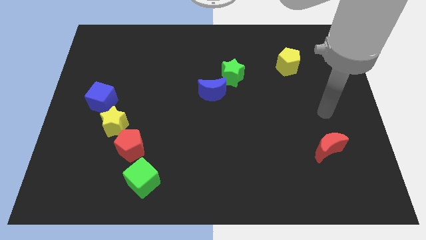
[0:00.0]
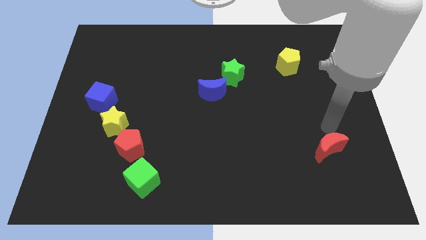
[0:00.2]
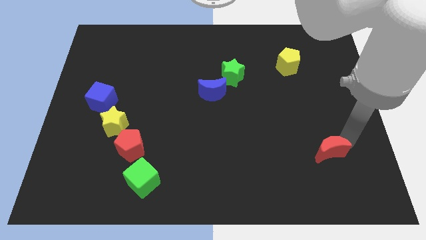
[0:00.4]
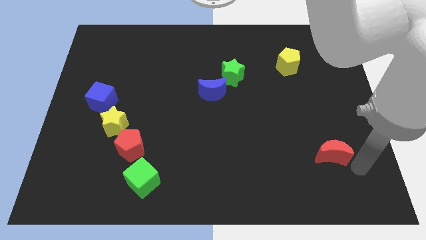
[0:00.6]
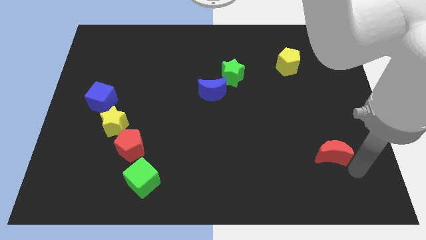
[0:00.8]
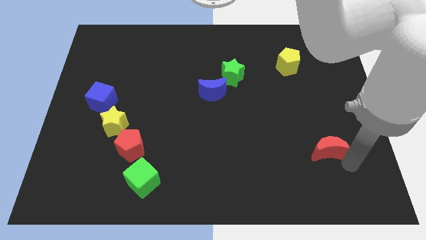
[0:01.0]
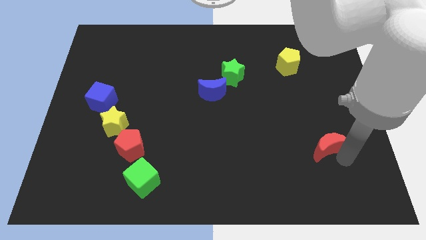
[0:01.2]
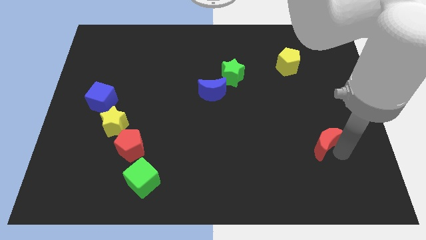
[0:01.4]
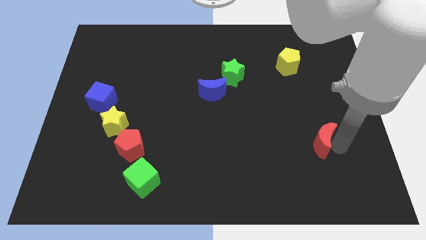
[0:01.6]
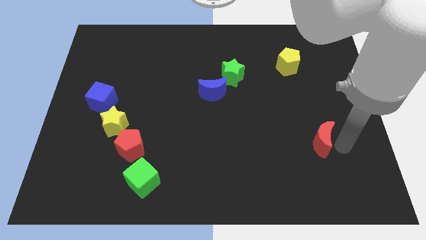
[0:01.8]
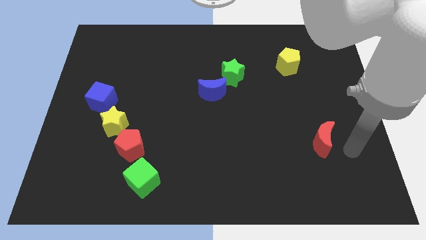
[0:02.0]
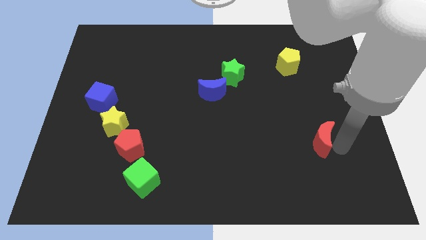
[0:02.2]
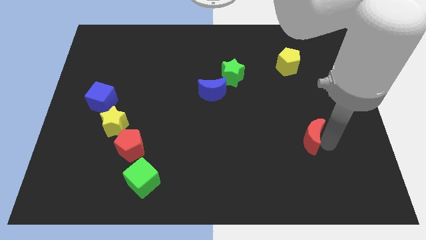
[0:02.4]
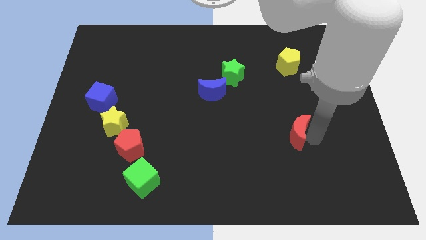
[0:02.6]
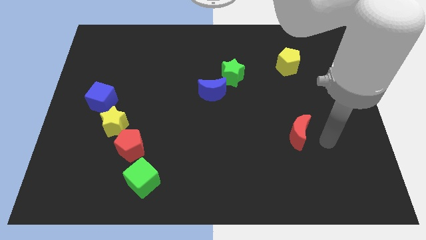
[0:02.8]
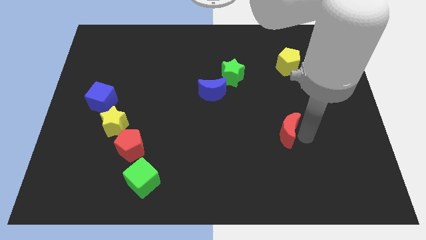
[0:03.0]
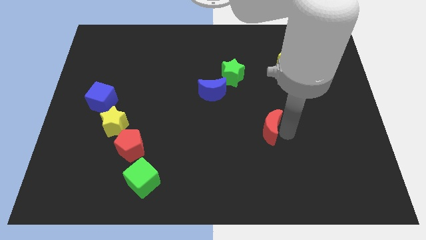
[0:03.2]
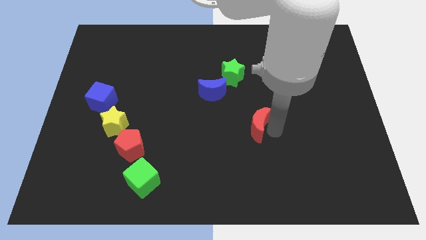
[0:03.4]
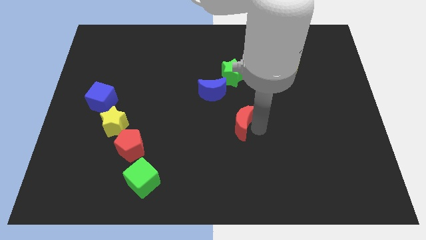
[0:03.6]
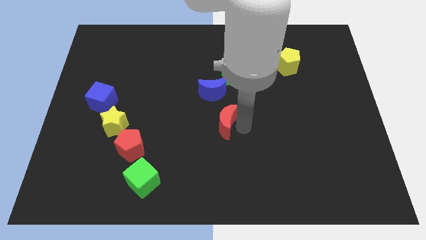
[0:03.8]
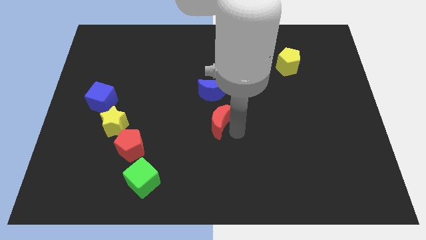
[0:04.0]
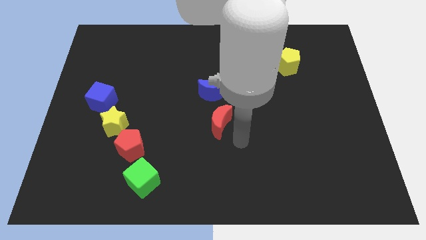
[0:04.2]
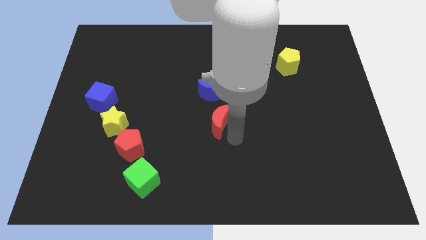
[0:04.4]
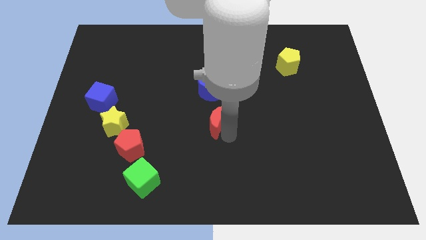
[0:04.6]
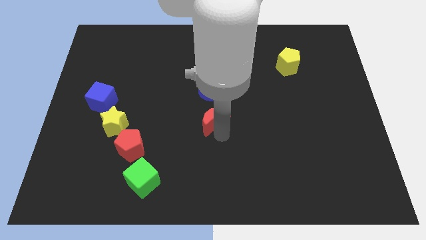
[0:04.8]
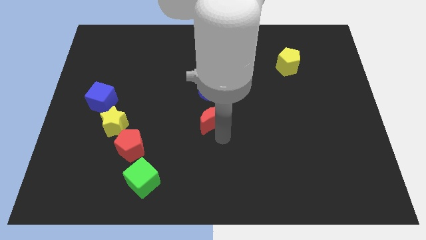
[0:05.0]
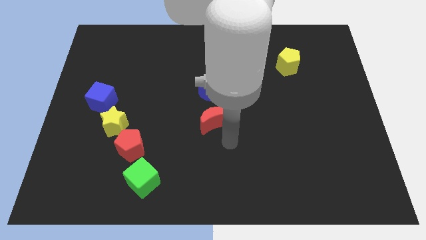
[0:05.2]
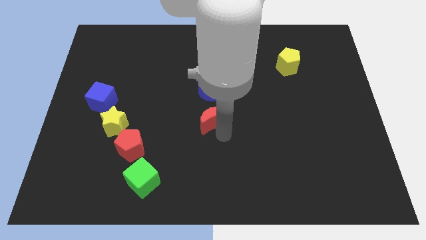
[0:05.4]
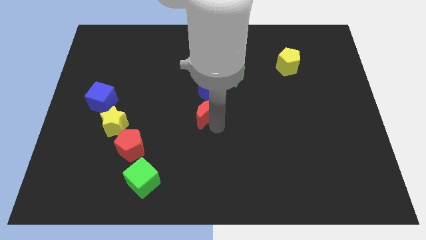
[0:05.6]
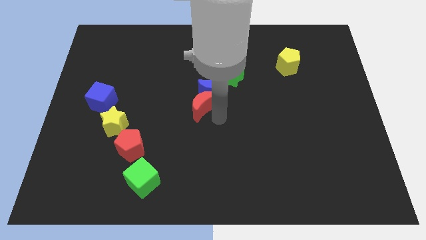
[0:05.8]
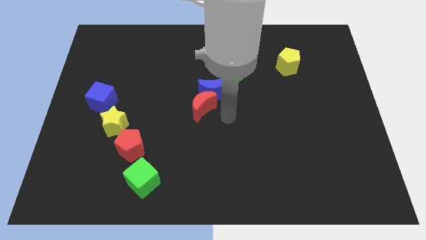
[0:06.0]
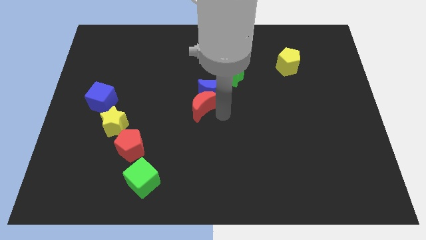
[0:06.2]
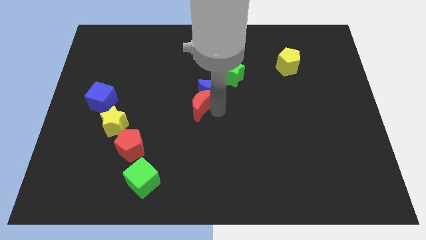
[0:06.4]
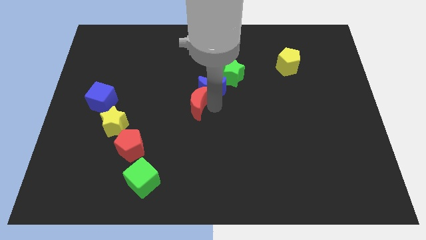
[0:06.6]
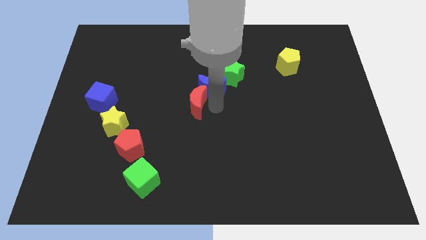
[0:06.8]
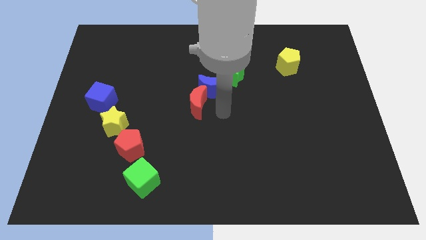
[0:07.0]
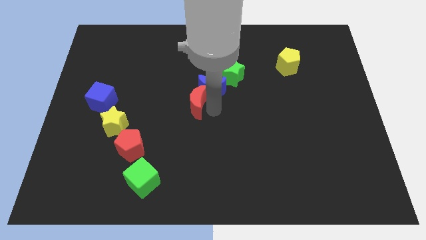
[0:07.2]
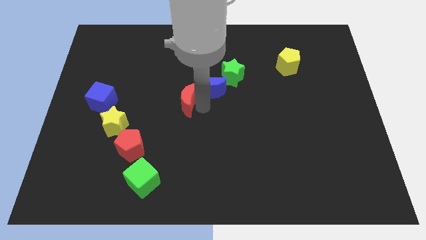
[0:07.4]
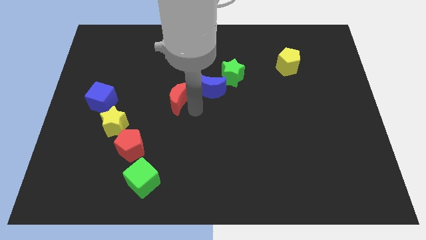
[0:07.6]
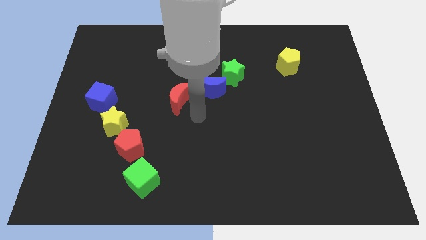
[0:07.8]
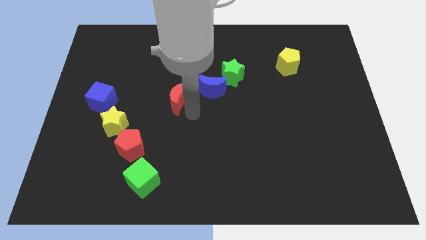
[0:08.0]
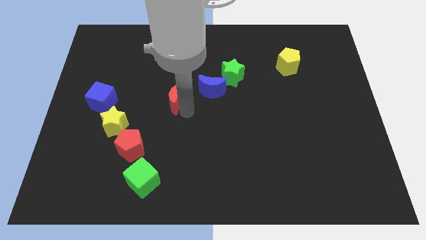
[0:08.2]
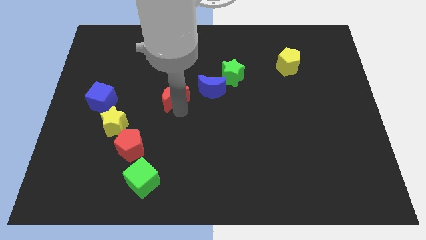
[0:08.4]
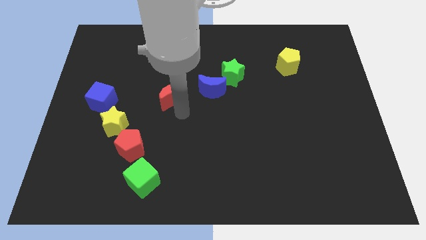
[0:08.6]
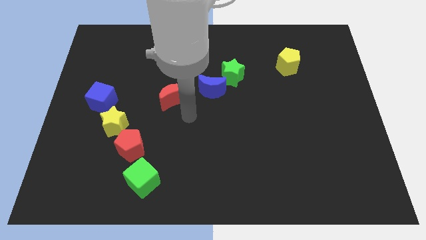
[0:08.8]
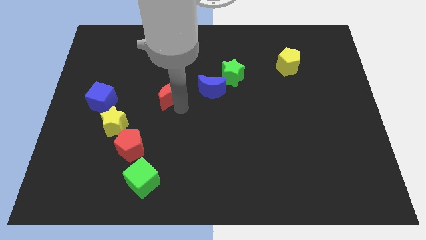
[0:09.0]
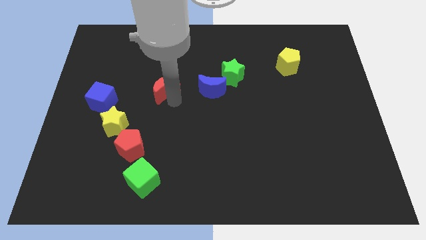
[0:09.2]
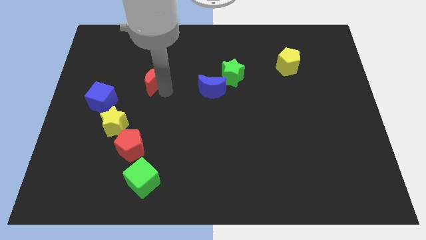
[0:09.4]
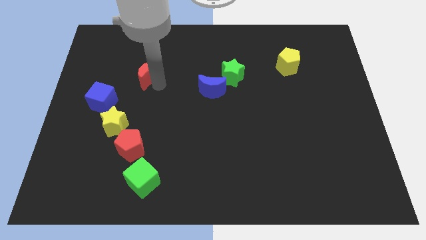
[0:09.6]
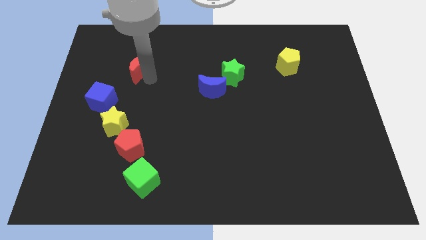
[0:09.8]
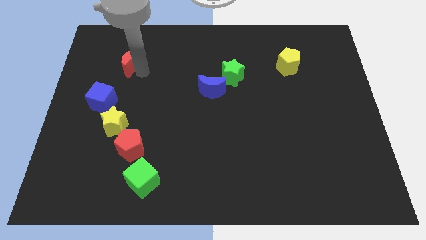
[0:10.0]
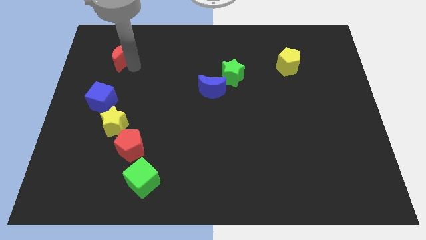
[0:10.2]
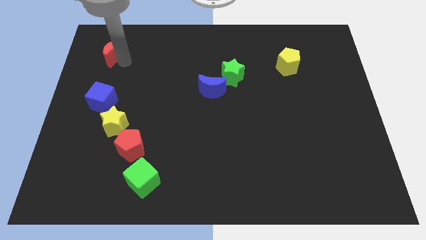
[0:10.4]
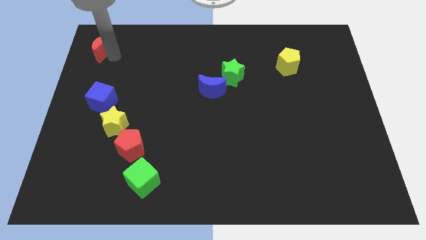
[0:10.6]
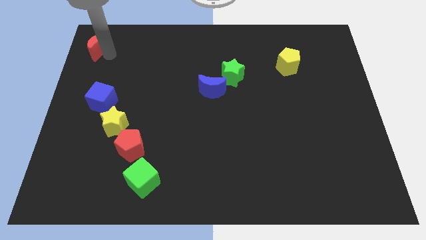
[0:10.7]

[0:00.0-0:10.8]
put the red moon to the top left of the board

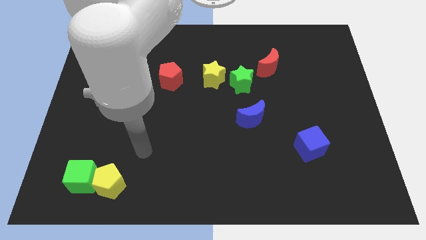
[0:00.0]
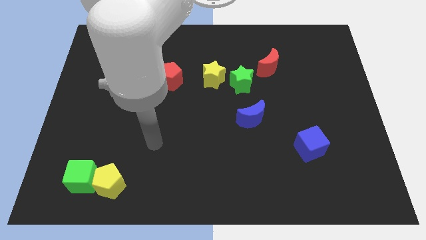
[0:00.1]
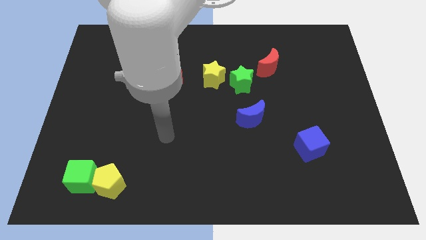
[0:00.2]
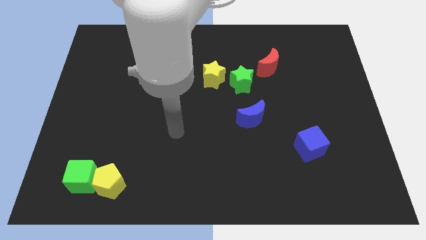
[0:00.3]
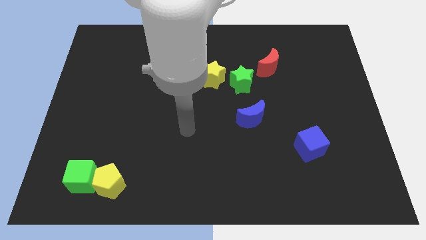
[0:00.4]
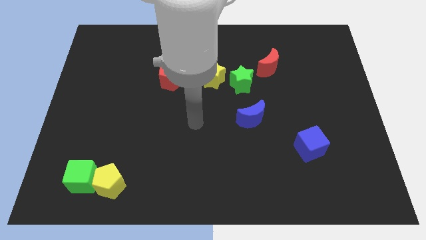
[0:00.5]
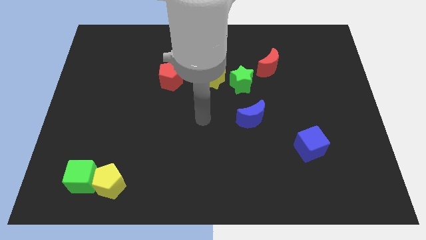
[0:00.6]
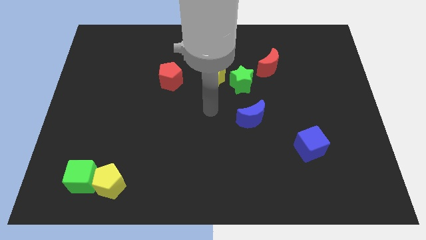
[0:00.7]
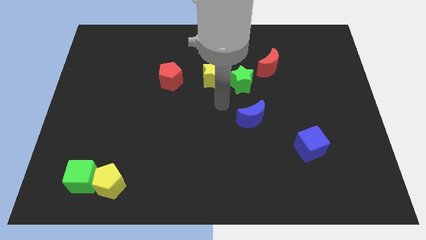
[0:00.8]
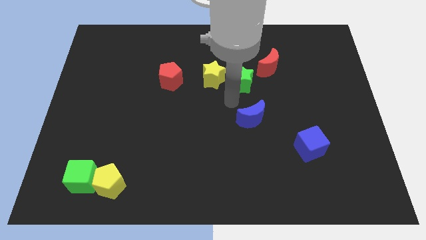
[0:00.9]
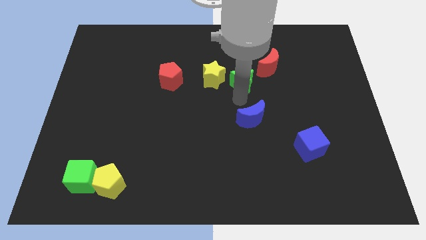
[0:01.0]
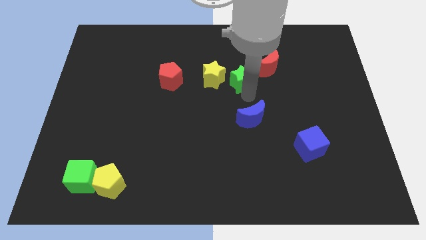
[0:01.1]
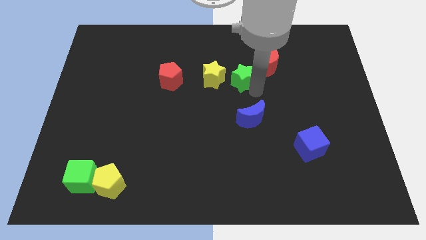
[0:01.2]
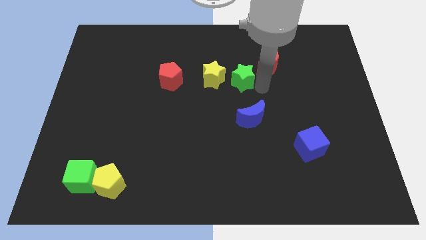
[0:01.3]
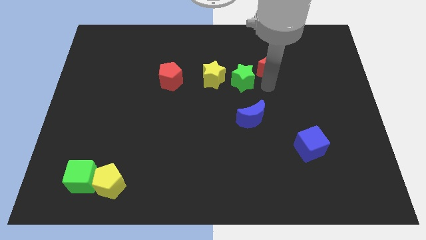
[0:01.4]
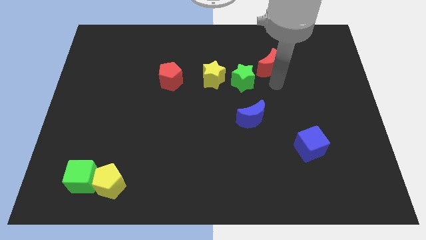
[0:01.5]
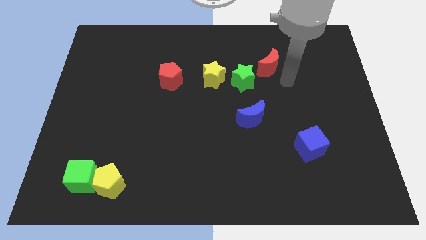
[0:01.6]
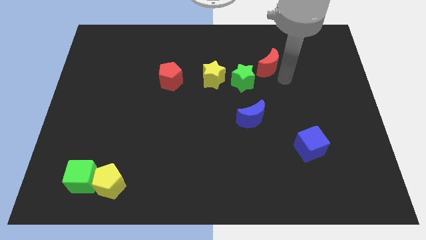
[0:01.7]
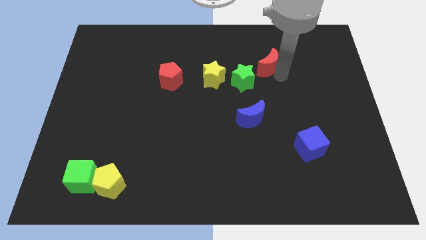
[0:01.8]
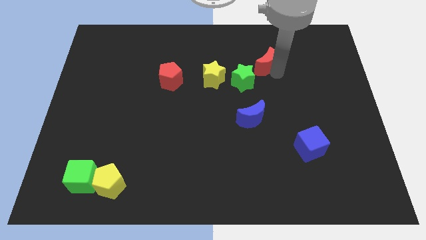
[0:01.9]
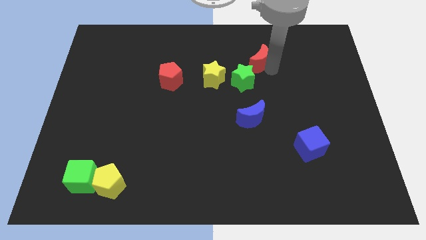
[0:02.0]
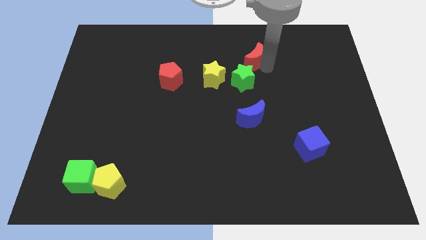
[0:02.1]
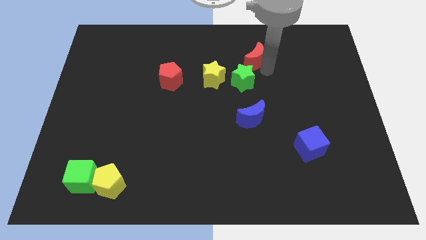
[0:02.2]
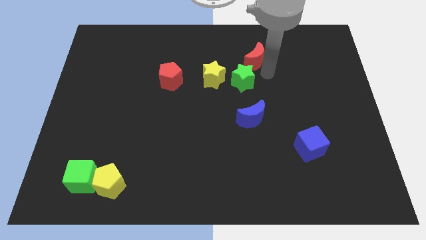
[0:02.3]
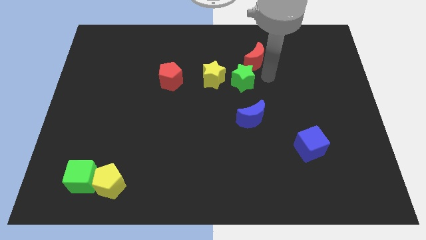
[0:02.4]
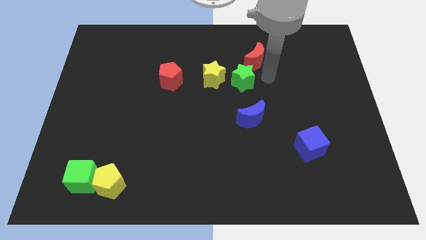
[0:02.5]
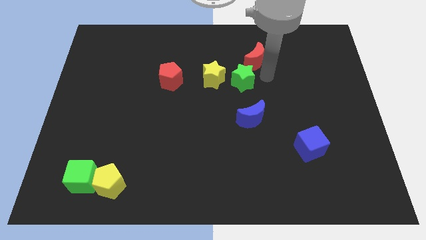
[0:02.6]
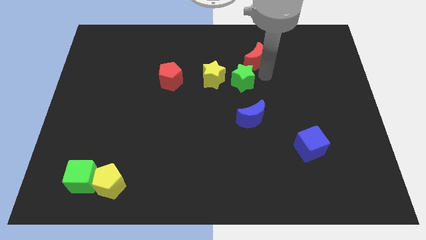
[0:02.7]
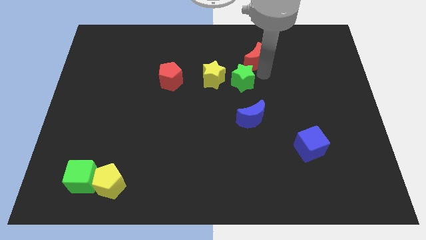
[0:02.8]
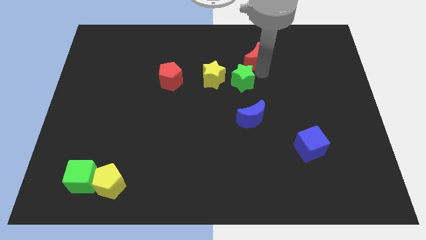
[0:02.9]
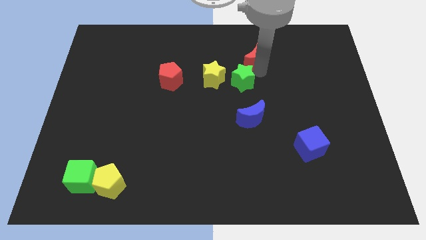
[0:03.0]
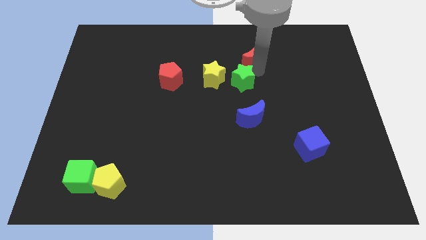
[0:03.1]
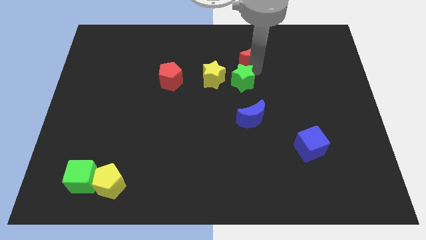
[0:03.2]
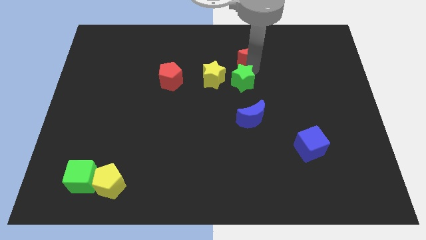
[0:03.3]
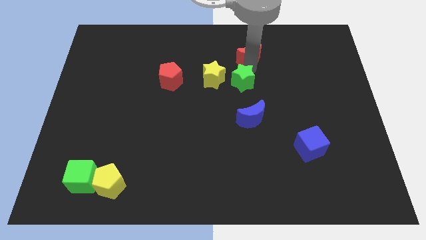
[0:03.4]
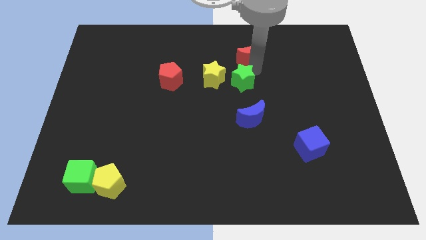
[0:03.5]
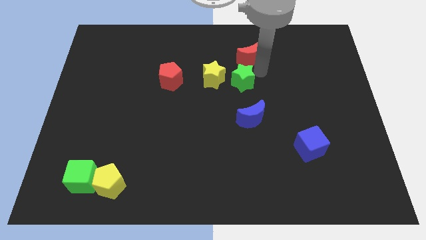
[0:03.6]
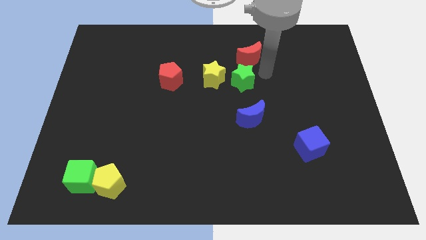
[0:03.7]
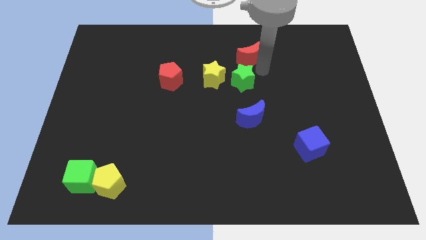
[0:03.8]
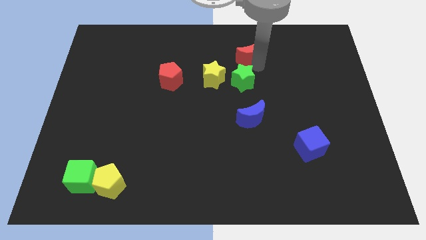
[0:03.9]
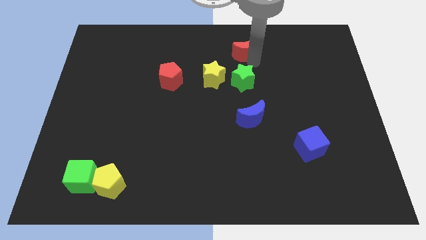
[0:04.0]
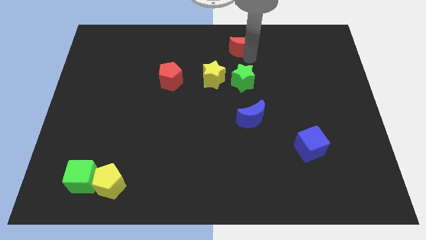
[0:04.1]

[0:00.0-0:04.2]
push the red moon to the towards your base
